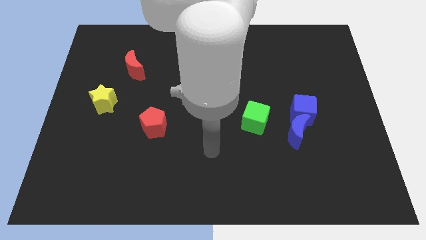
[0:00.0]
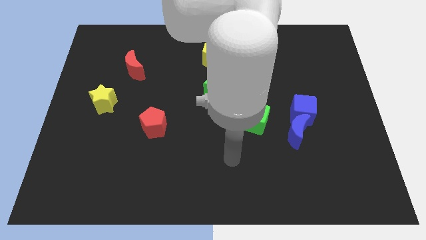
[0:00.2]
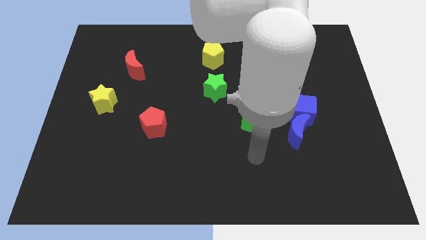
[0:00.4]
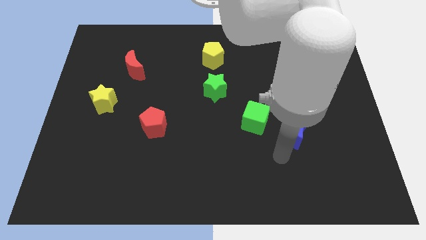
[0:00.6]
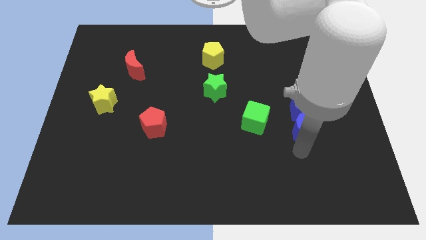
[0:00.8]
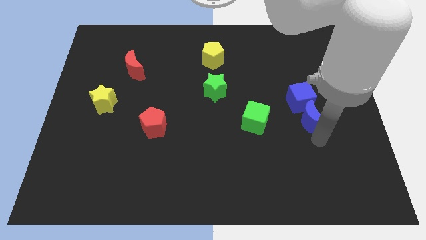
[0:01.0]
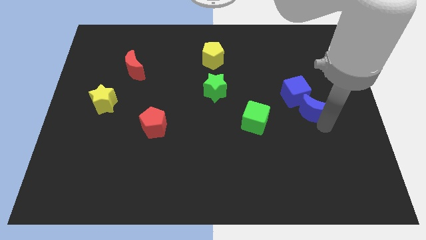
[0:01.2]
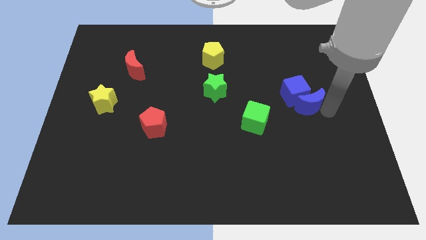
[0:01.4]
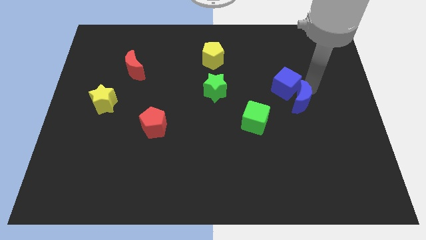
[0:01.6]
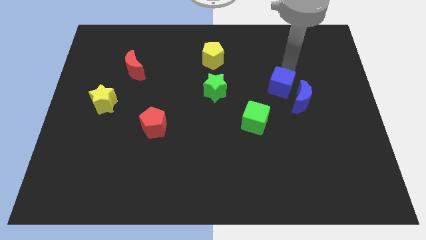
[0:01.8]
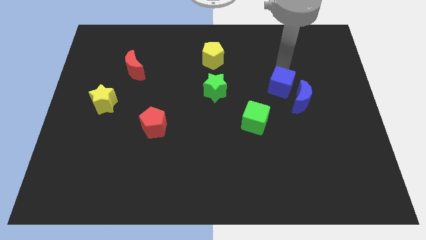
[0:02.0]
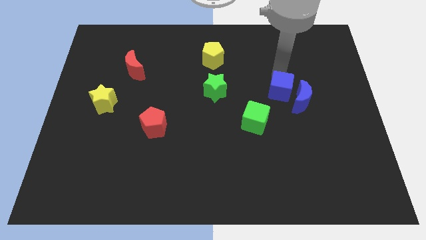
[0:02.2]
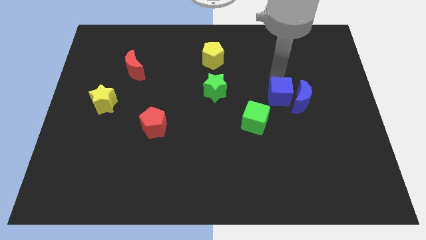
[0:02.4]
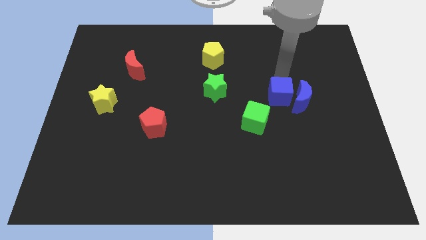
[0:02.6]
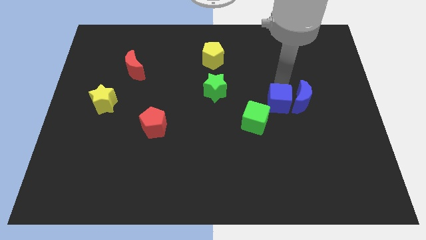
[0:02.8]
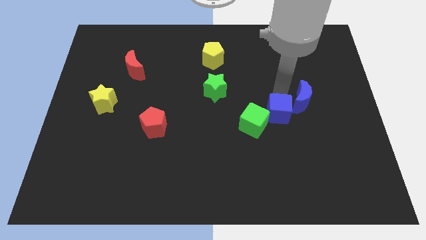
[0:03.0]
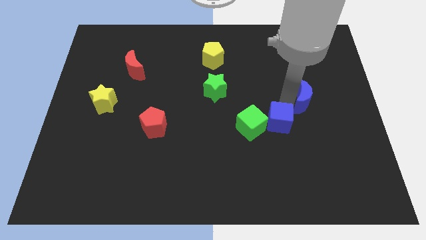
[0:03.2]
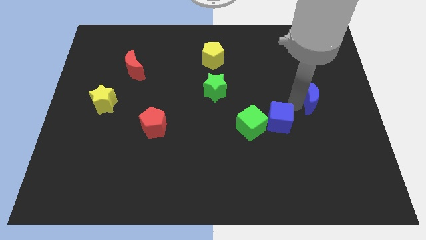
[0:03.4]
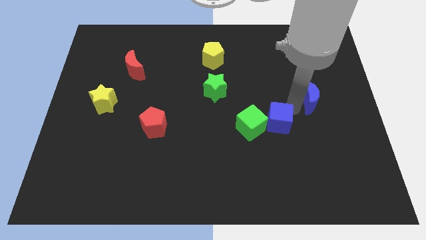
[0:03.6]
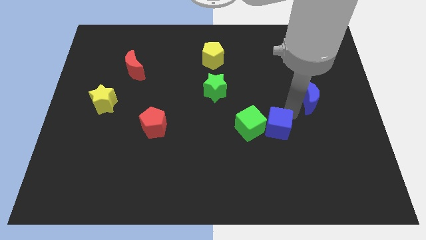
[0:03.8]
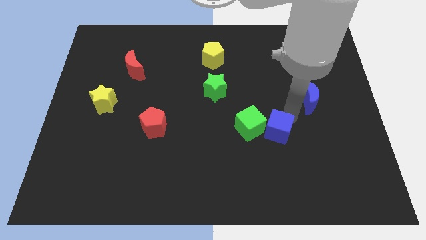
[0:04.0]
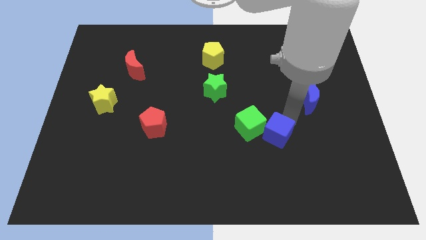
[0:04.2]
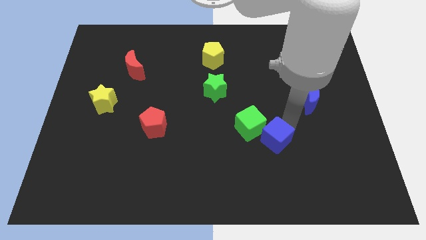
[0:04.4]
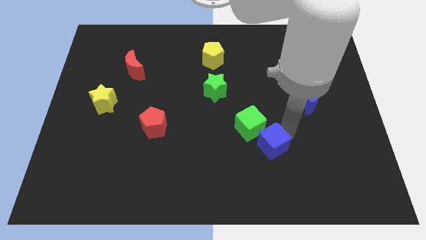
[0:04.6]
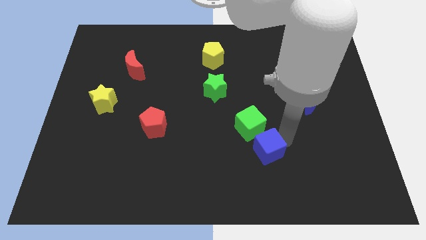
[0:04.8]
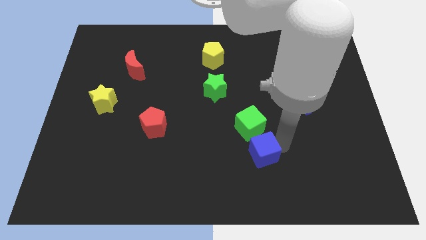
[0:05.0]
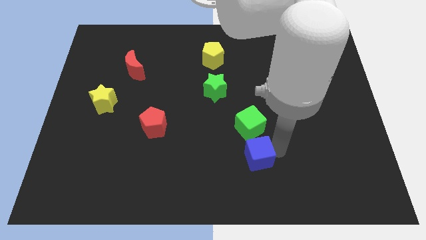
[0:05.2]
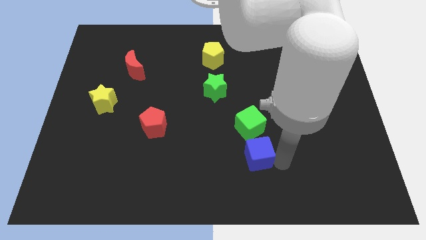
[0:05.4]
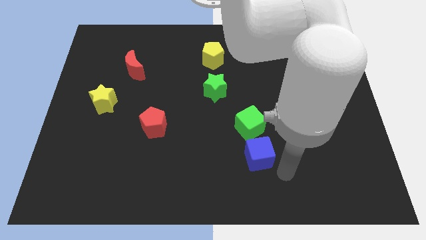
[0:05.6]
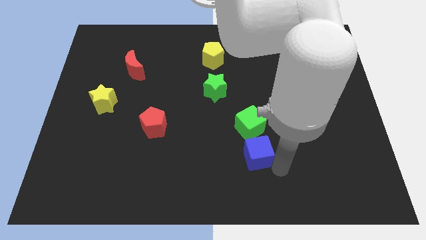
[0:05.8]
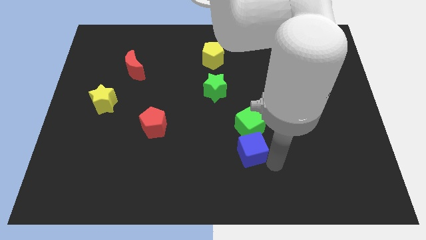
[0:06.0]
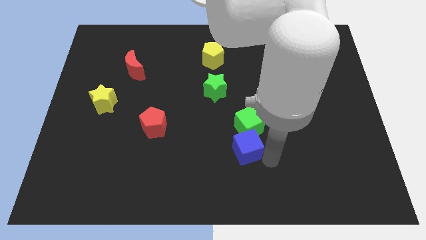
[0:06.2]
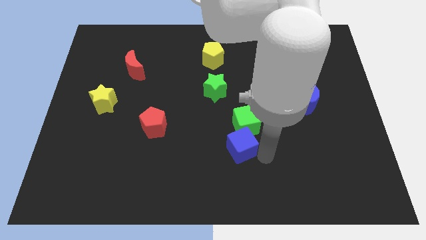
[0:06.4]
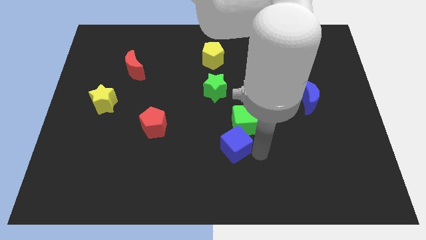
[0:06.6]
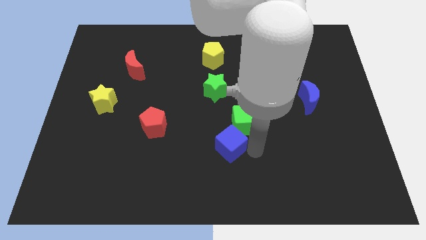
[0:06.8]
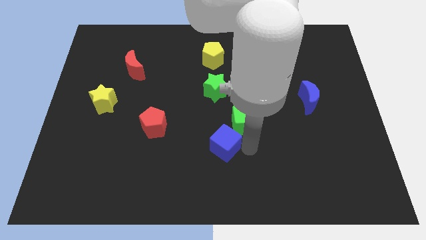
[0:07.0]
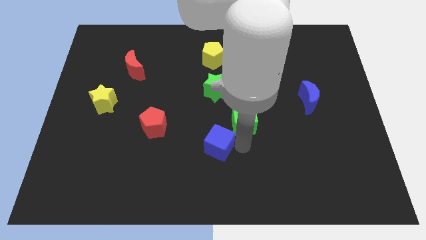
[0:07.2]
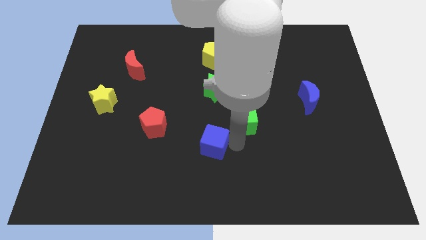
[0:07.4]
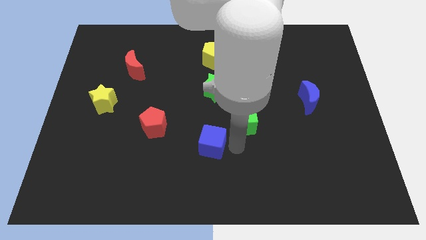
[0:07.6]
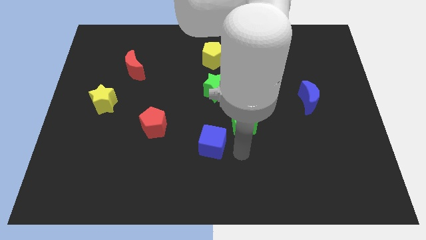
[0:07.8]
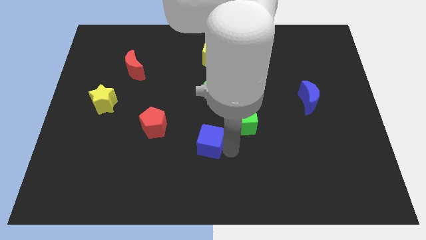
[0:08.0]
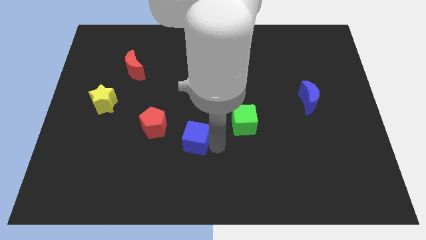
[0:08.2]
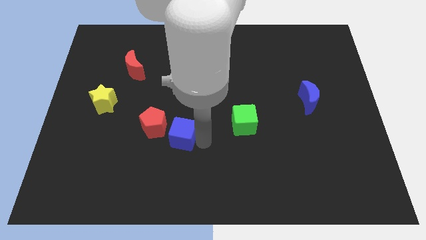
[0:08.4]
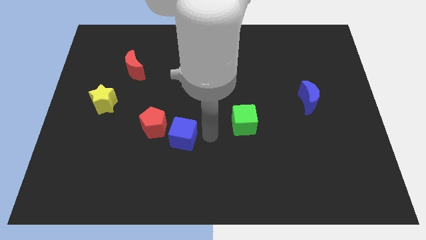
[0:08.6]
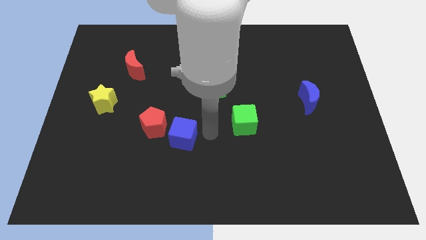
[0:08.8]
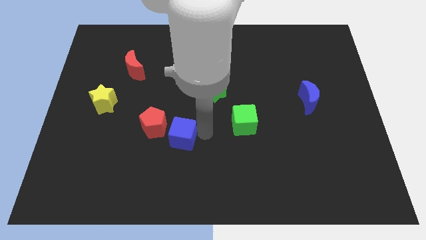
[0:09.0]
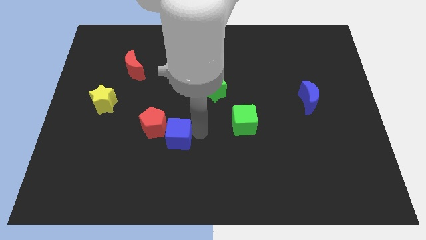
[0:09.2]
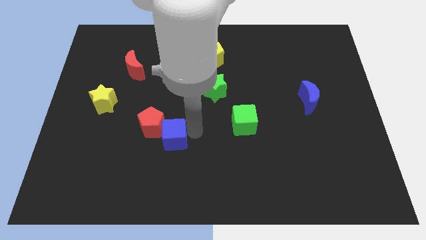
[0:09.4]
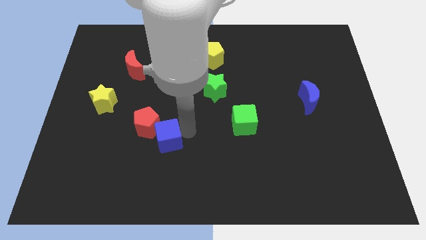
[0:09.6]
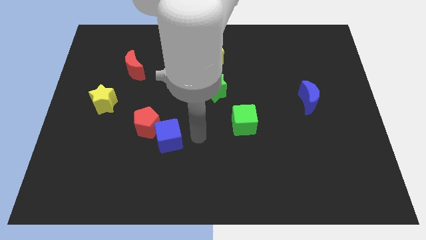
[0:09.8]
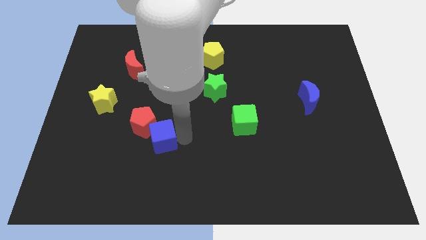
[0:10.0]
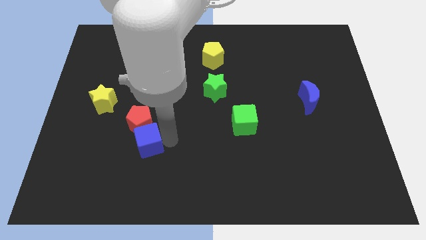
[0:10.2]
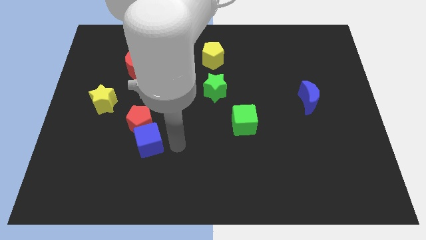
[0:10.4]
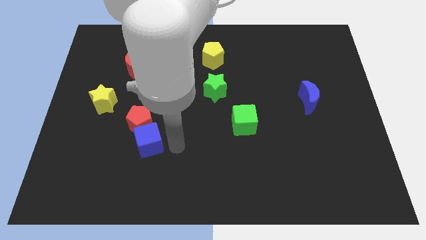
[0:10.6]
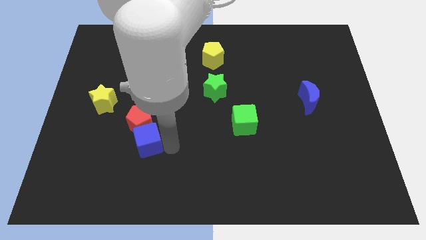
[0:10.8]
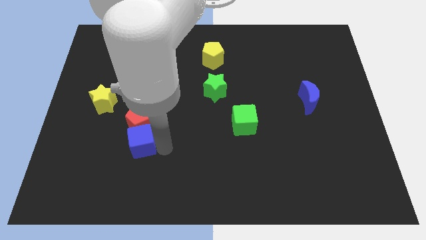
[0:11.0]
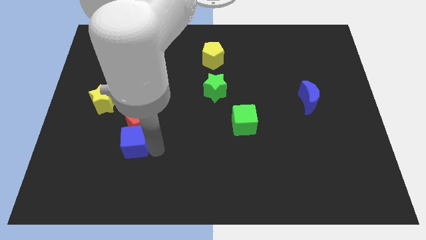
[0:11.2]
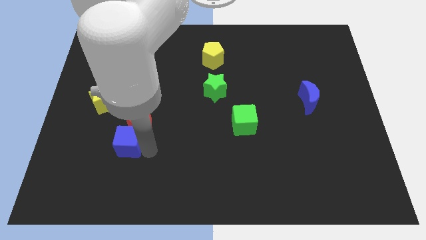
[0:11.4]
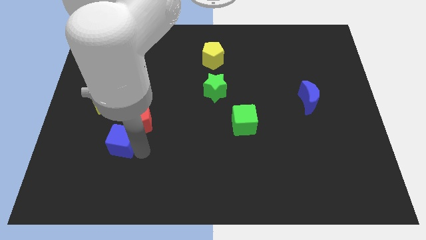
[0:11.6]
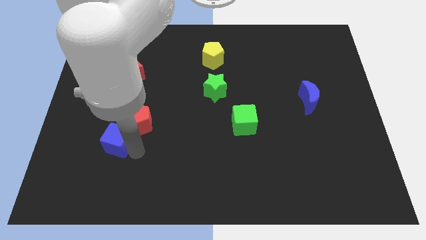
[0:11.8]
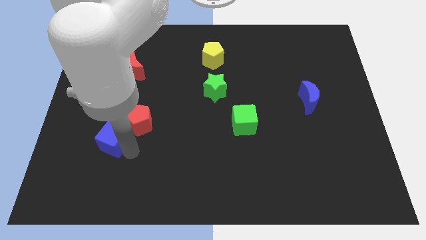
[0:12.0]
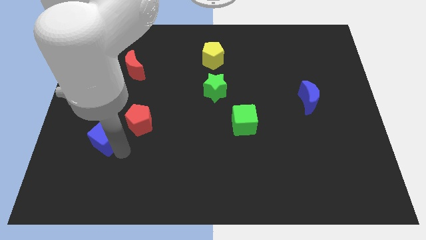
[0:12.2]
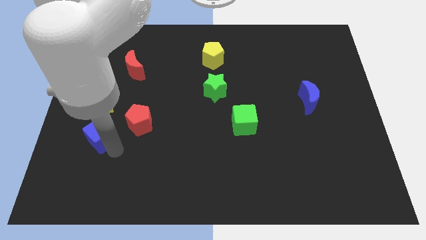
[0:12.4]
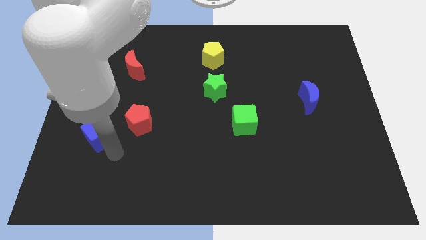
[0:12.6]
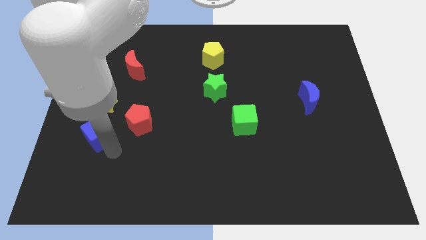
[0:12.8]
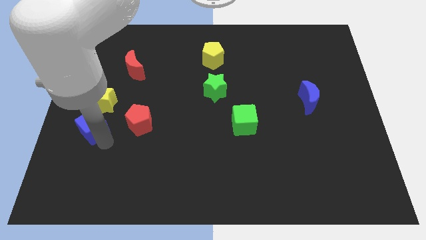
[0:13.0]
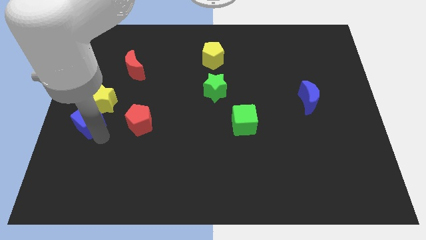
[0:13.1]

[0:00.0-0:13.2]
slide the blue cube to the left side
